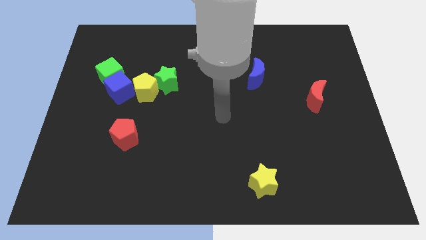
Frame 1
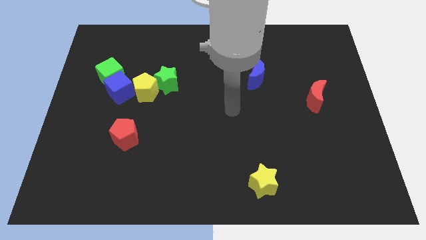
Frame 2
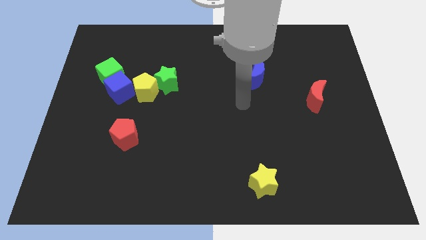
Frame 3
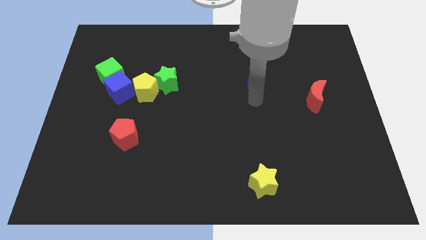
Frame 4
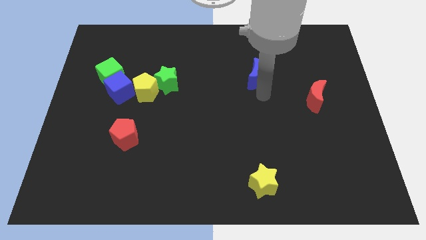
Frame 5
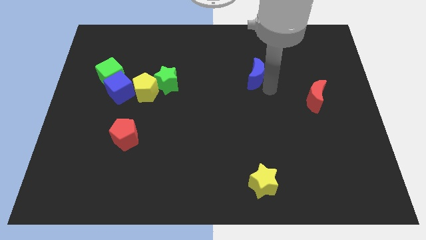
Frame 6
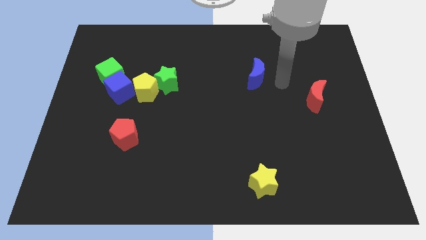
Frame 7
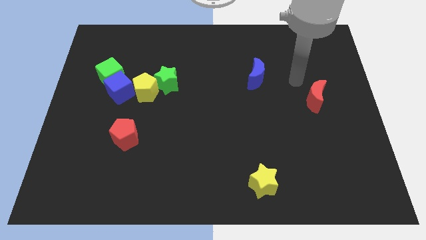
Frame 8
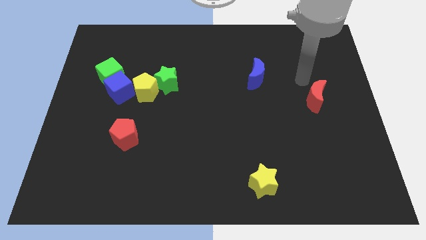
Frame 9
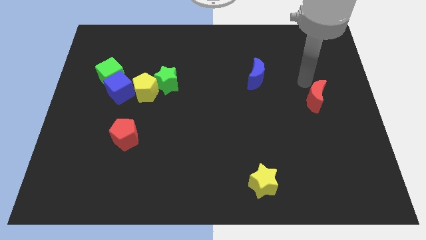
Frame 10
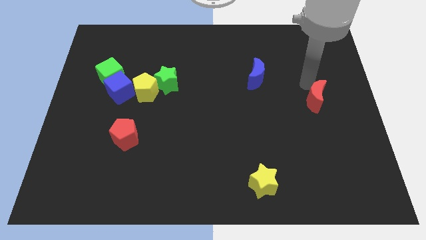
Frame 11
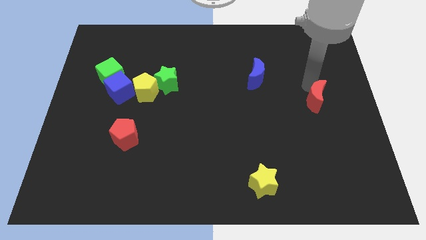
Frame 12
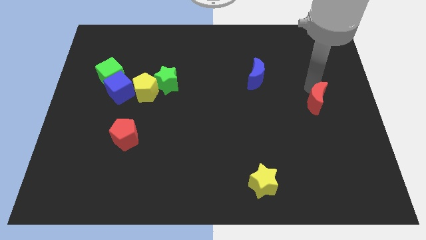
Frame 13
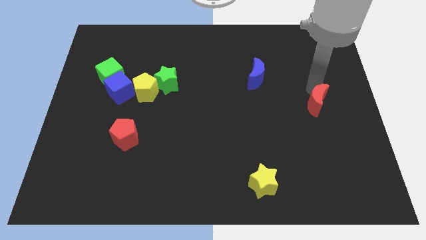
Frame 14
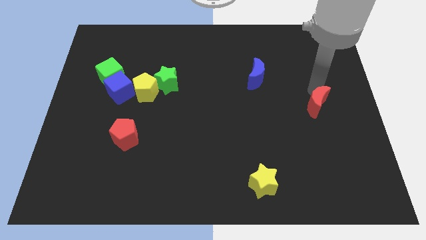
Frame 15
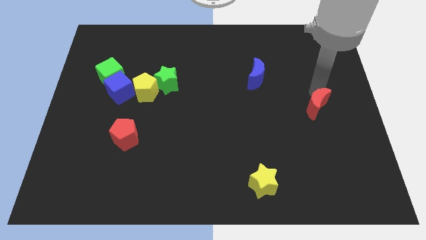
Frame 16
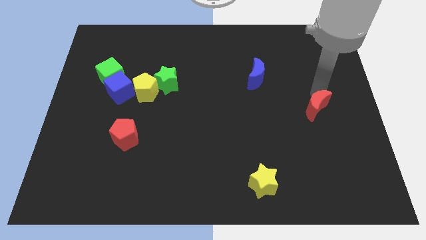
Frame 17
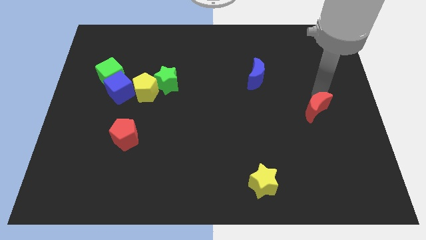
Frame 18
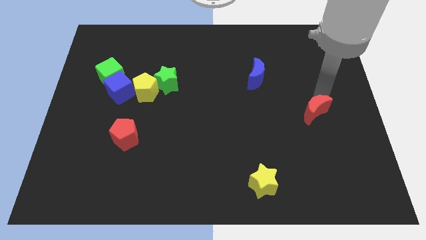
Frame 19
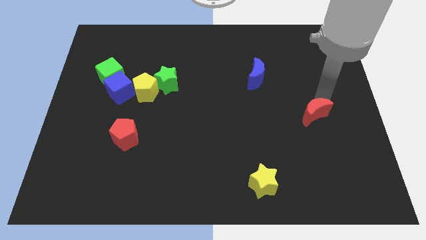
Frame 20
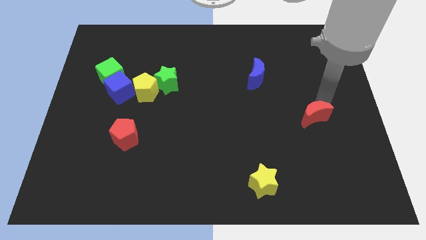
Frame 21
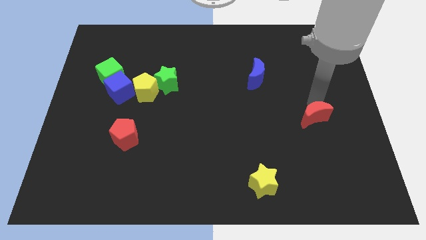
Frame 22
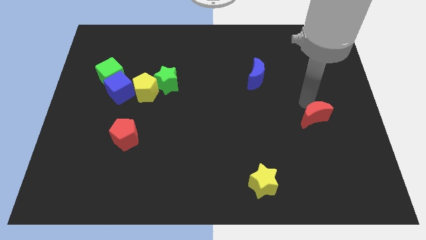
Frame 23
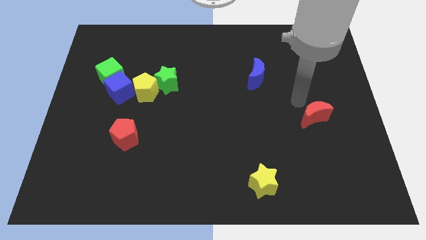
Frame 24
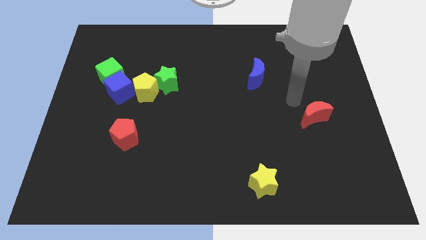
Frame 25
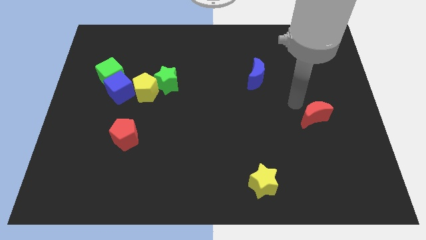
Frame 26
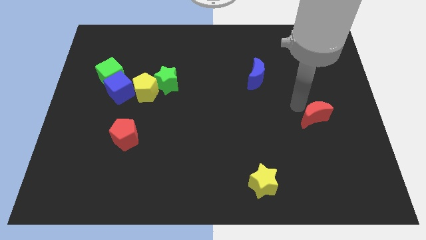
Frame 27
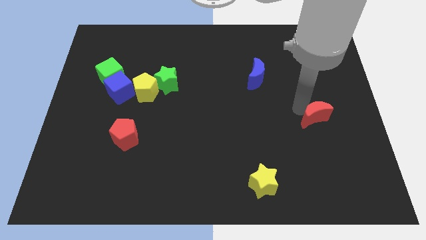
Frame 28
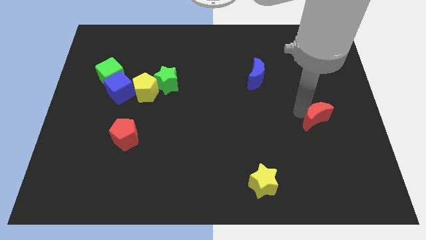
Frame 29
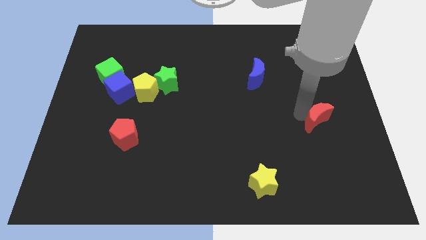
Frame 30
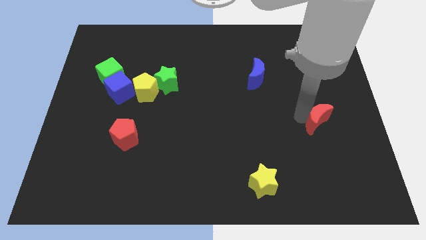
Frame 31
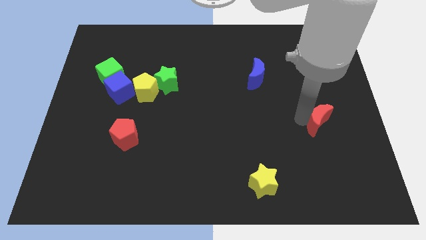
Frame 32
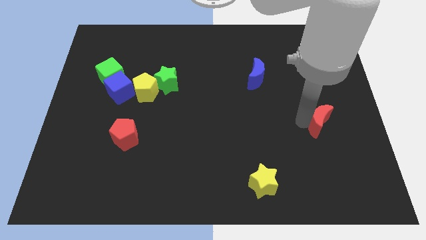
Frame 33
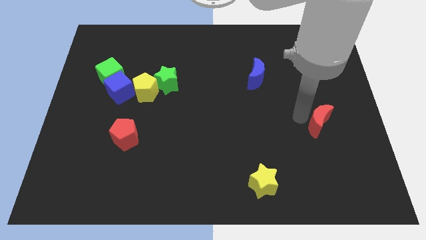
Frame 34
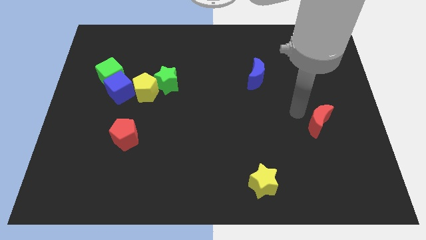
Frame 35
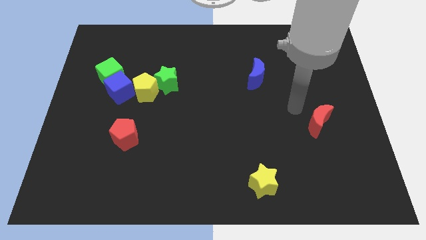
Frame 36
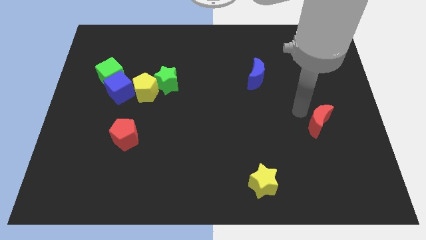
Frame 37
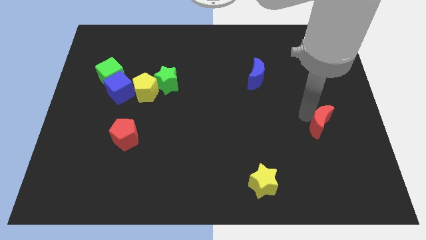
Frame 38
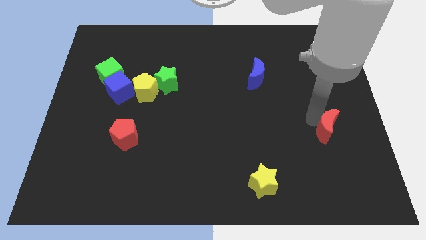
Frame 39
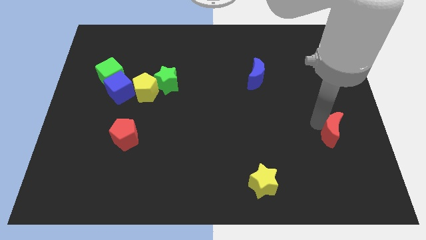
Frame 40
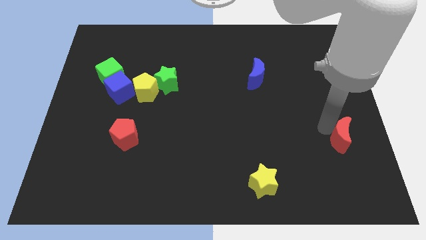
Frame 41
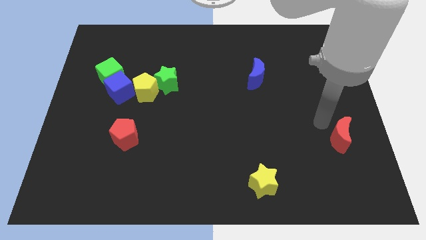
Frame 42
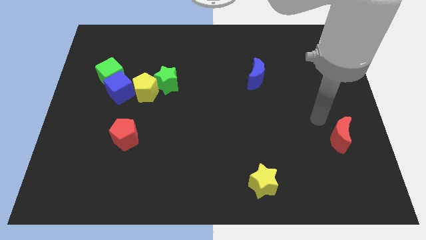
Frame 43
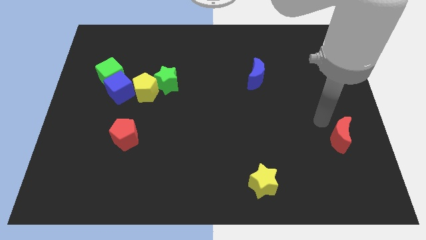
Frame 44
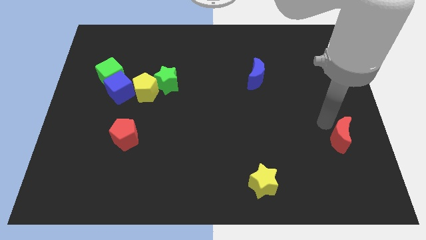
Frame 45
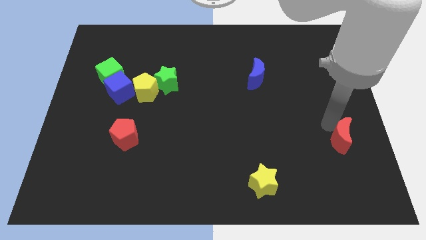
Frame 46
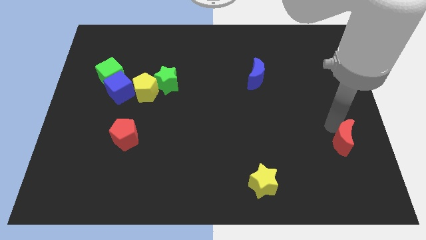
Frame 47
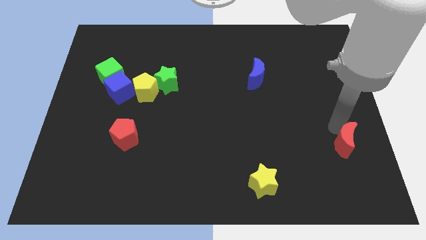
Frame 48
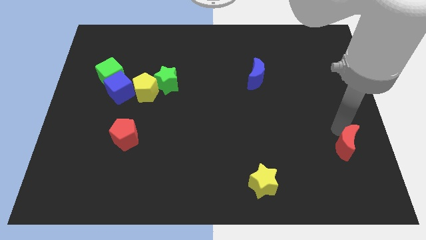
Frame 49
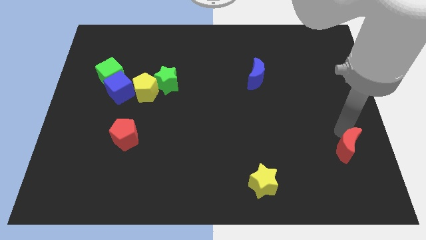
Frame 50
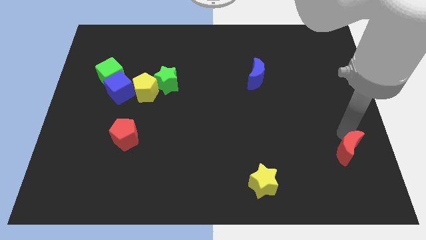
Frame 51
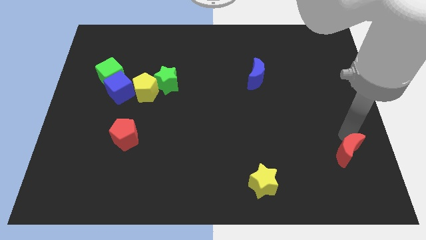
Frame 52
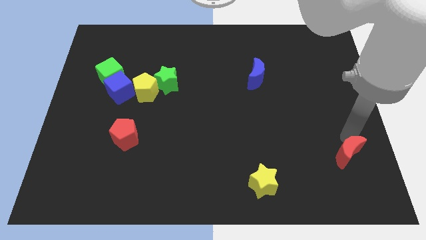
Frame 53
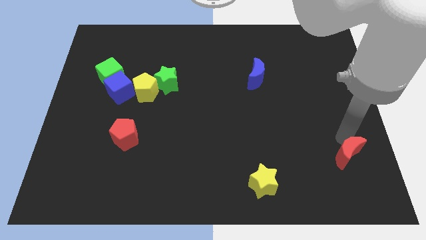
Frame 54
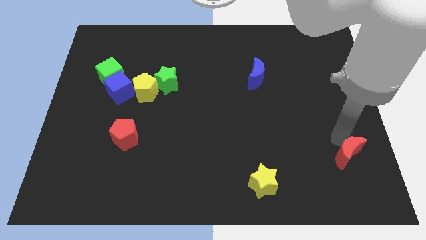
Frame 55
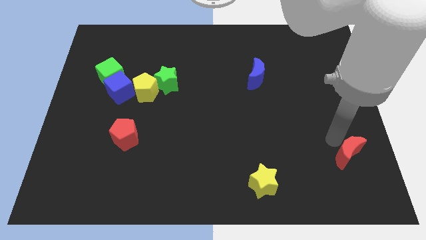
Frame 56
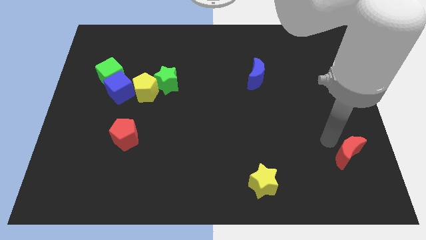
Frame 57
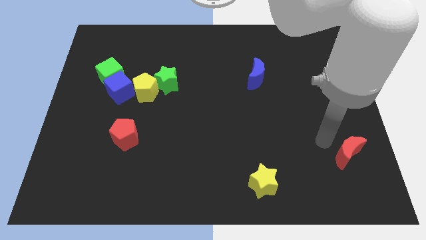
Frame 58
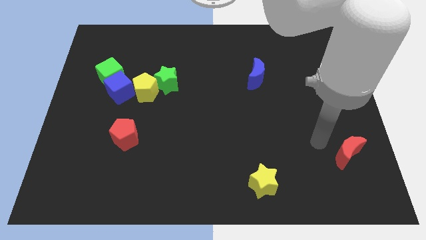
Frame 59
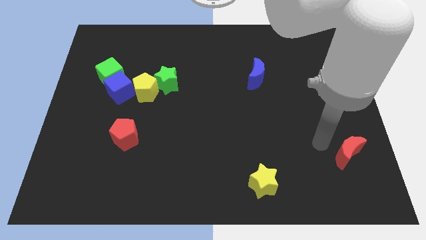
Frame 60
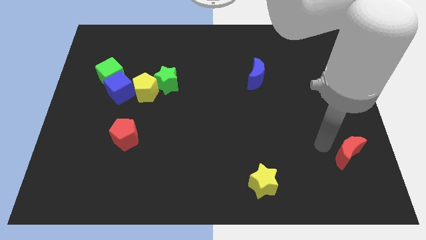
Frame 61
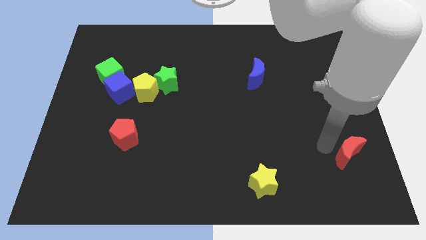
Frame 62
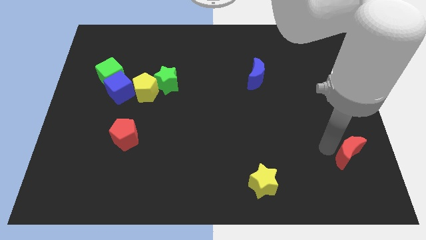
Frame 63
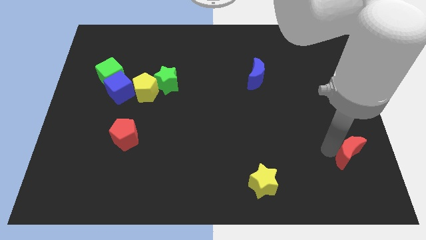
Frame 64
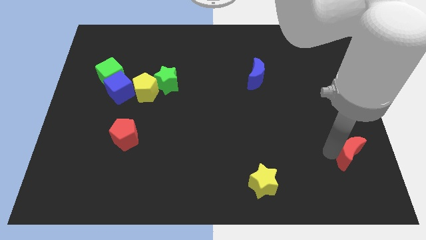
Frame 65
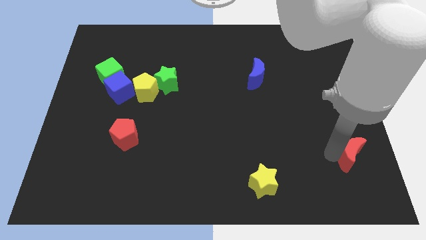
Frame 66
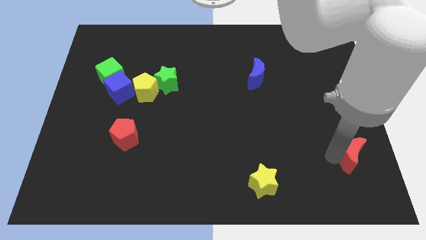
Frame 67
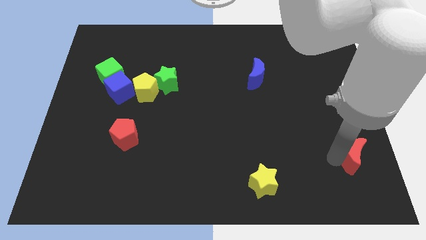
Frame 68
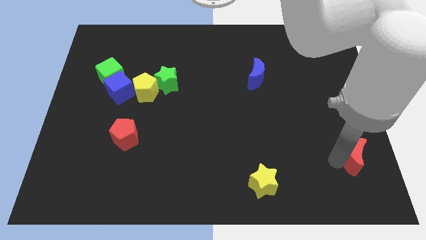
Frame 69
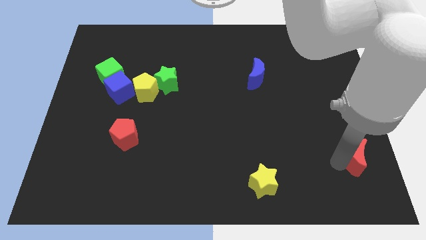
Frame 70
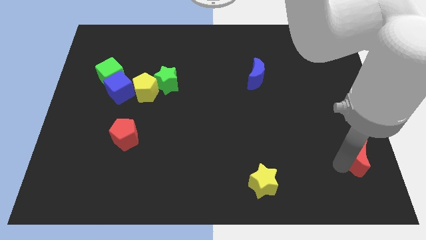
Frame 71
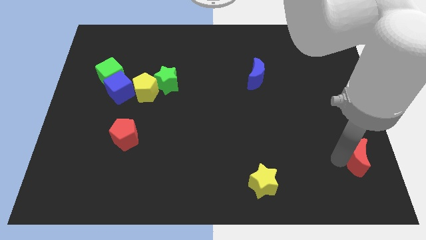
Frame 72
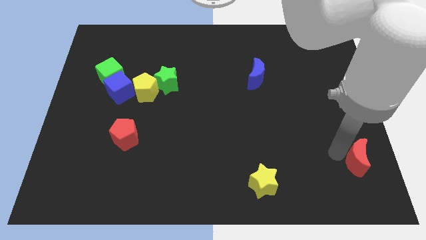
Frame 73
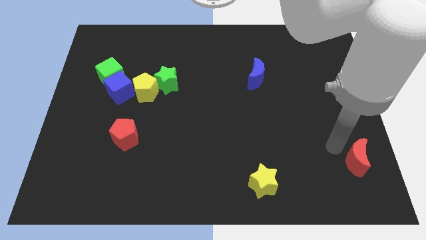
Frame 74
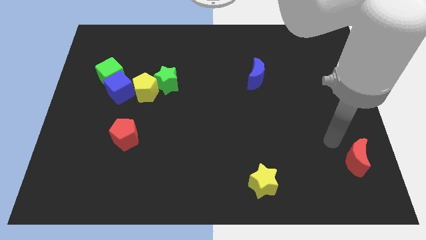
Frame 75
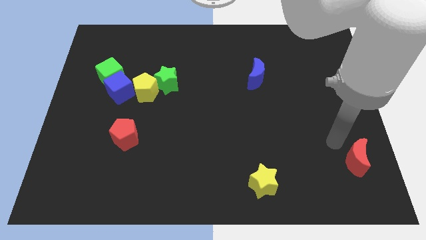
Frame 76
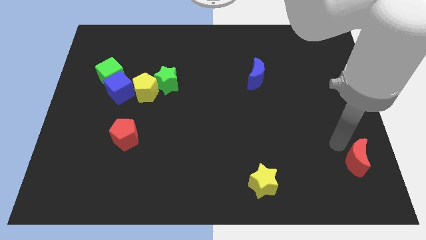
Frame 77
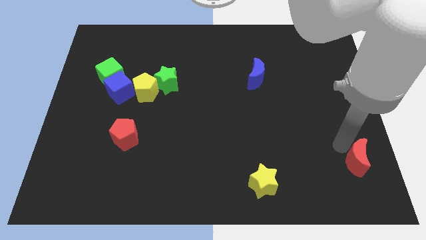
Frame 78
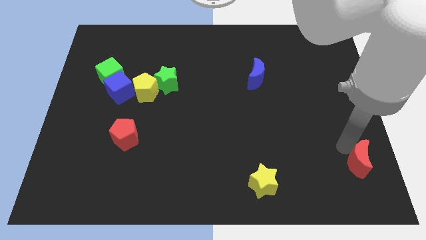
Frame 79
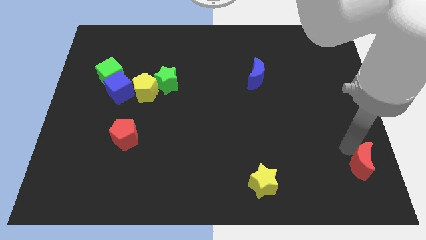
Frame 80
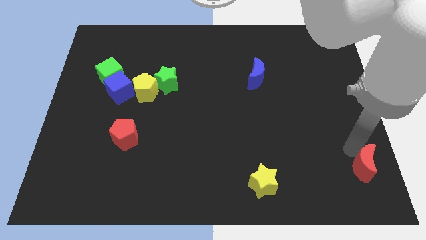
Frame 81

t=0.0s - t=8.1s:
move the red moon to the bottom right
